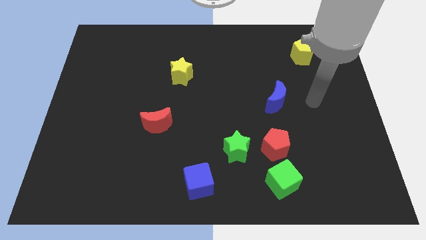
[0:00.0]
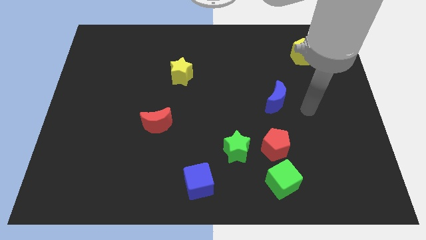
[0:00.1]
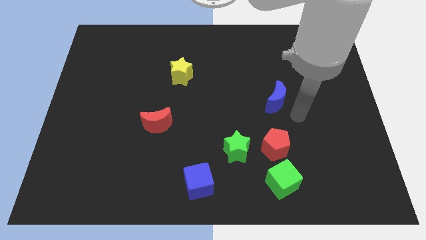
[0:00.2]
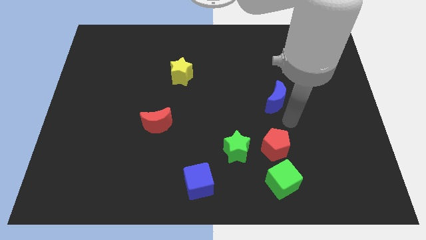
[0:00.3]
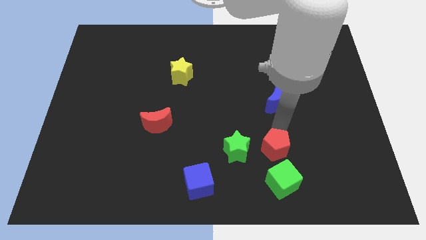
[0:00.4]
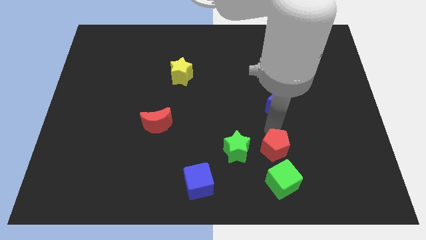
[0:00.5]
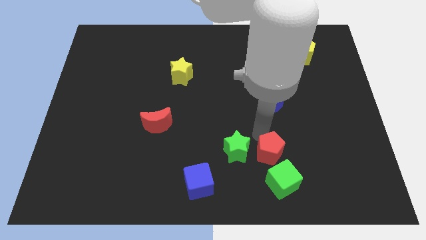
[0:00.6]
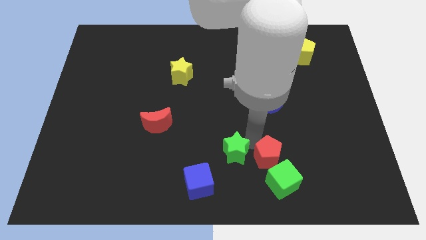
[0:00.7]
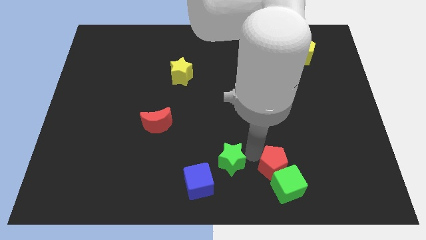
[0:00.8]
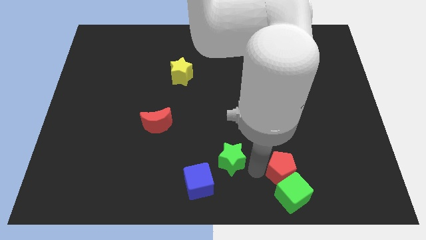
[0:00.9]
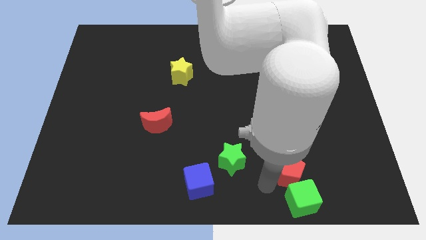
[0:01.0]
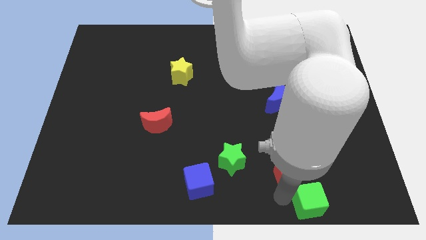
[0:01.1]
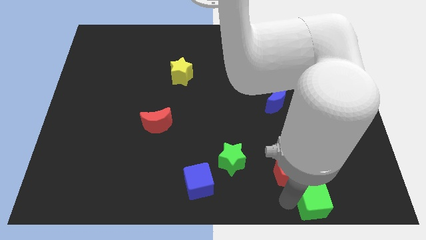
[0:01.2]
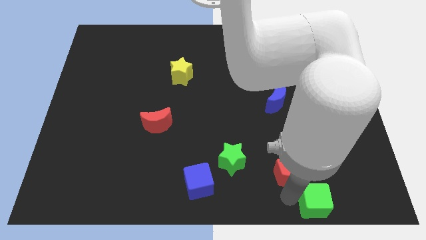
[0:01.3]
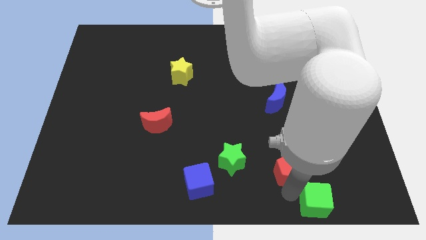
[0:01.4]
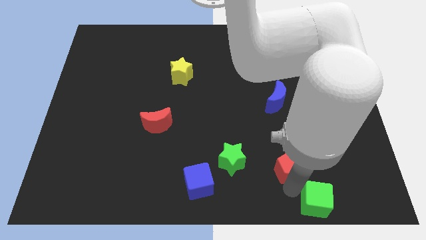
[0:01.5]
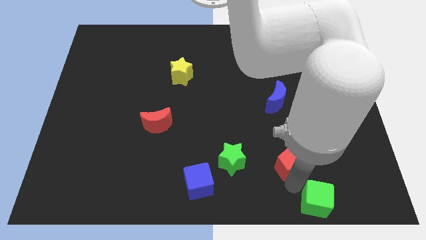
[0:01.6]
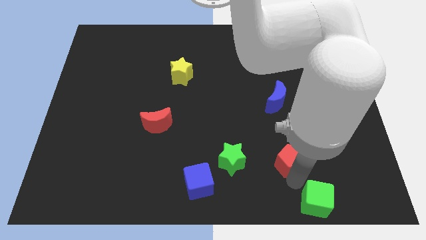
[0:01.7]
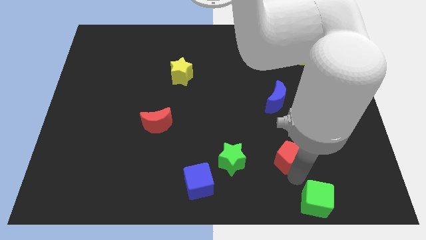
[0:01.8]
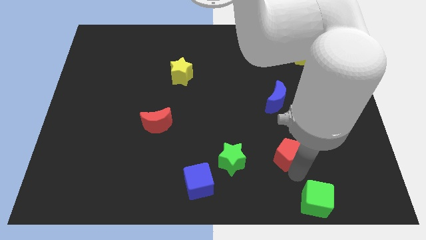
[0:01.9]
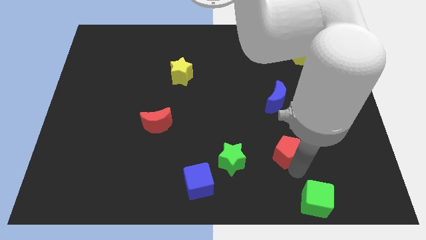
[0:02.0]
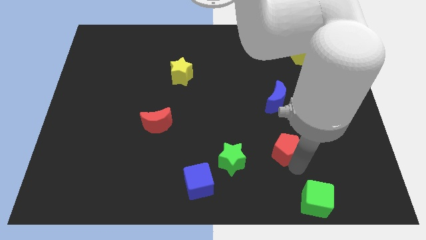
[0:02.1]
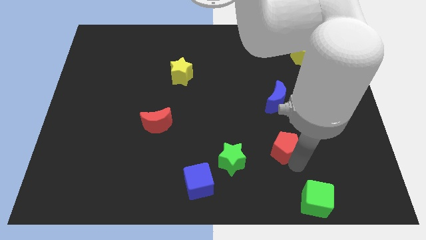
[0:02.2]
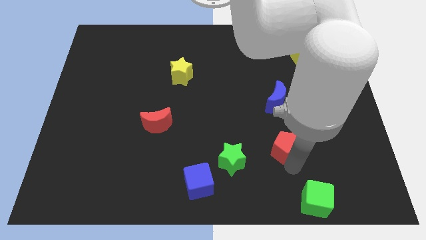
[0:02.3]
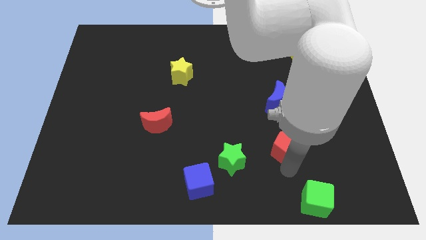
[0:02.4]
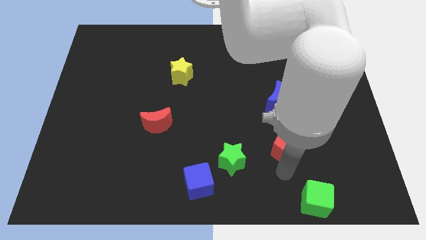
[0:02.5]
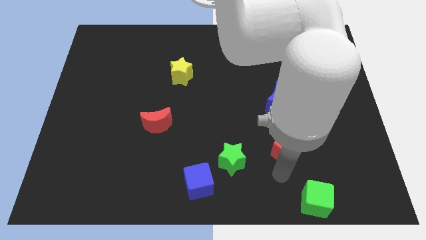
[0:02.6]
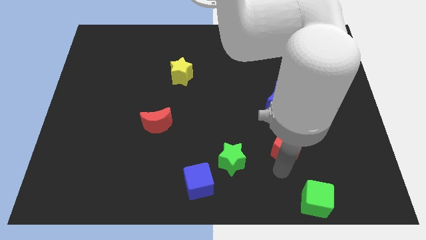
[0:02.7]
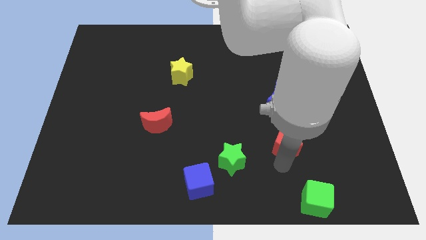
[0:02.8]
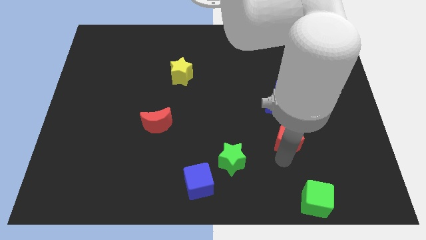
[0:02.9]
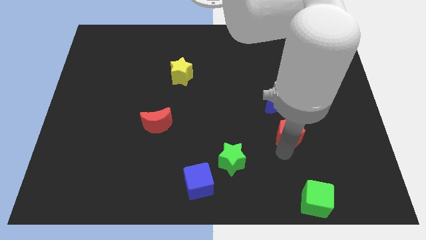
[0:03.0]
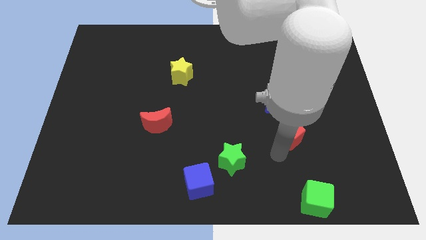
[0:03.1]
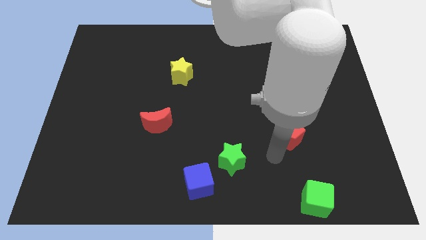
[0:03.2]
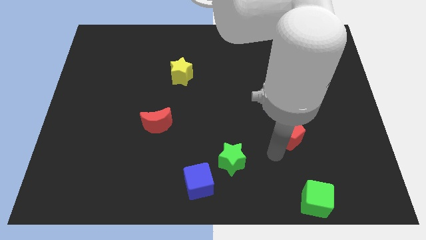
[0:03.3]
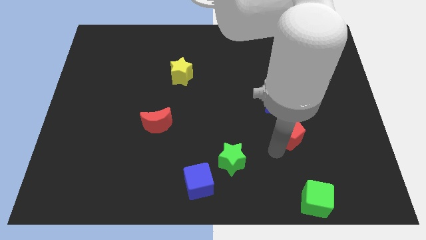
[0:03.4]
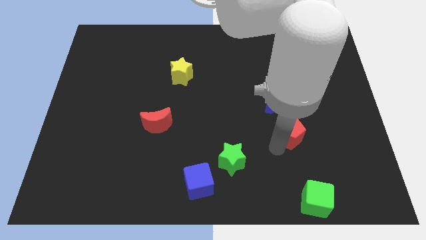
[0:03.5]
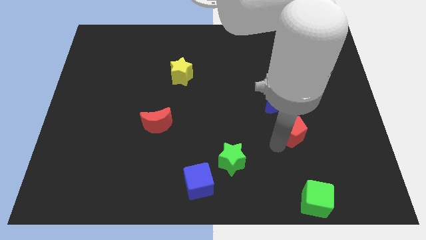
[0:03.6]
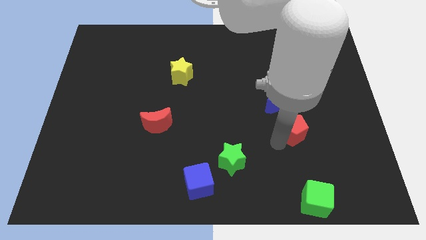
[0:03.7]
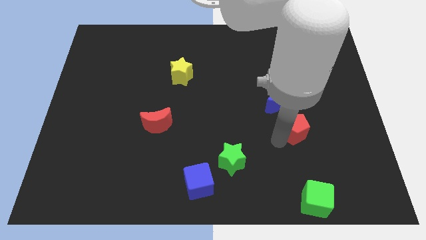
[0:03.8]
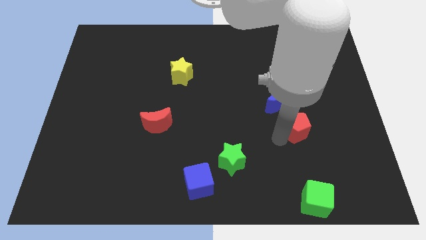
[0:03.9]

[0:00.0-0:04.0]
move the red pentagon slightly diagonally up and right

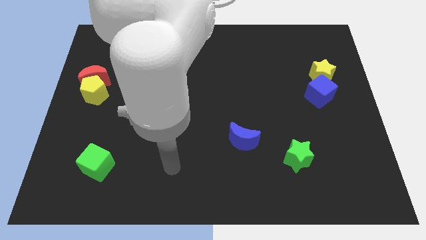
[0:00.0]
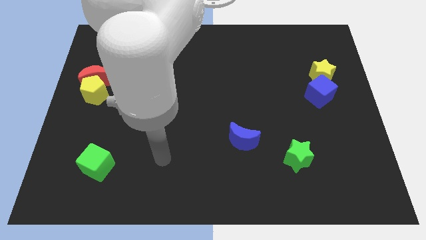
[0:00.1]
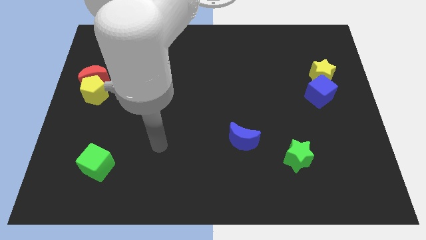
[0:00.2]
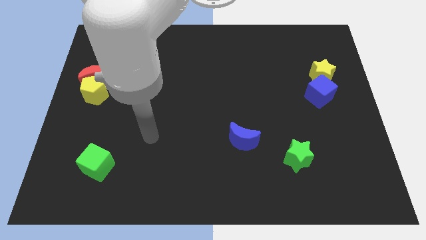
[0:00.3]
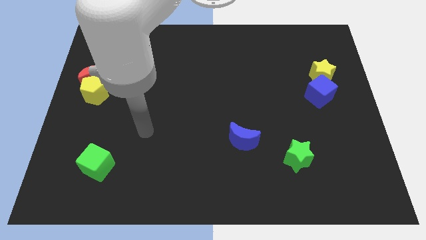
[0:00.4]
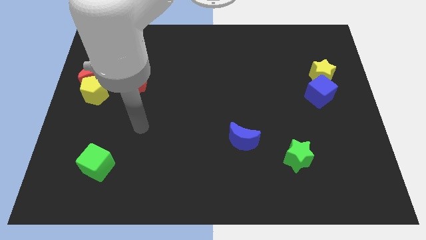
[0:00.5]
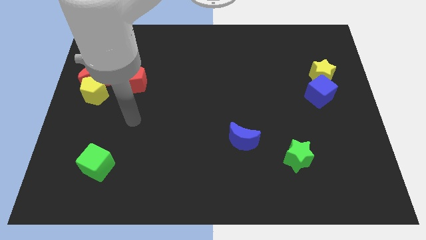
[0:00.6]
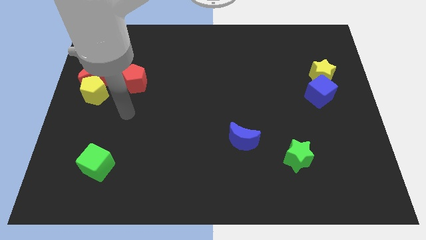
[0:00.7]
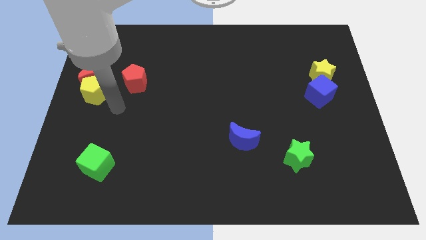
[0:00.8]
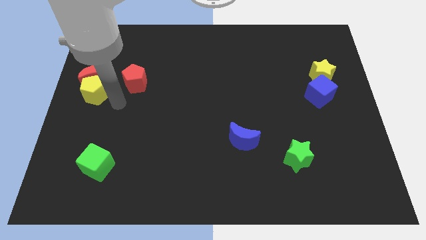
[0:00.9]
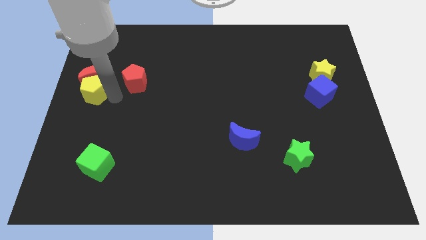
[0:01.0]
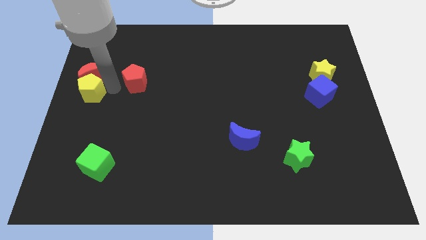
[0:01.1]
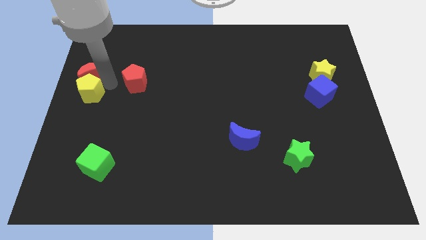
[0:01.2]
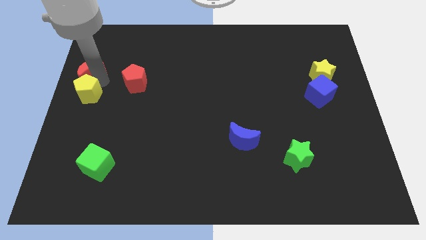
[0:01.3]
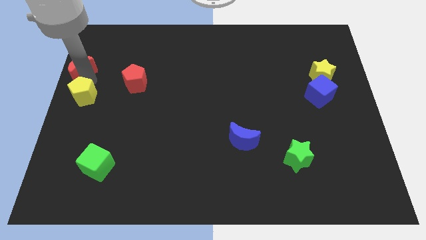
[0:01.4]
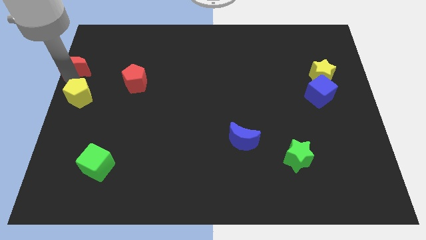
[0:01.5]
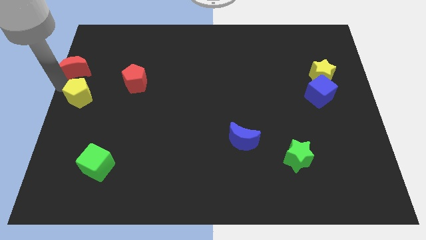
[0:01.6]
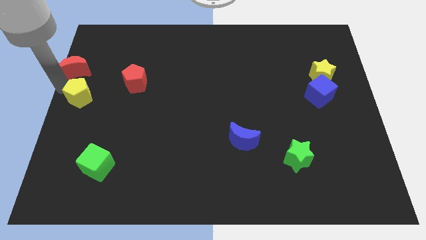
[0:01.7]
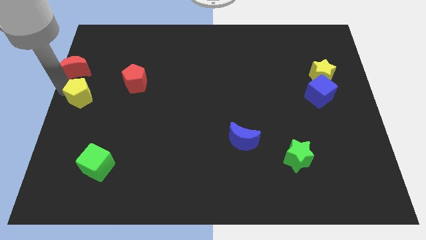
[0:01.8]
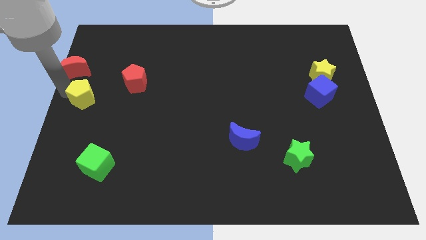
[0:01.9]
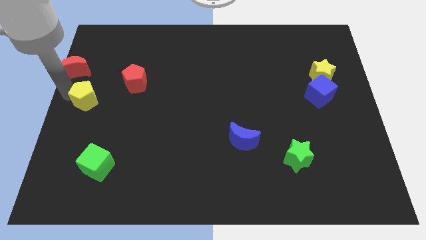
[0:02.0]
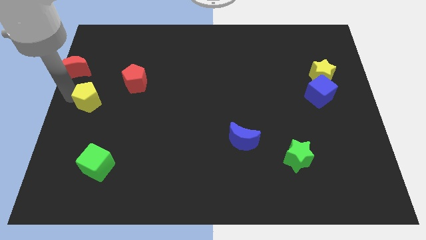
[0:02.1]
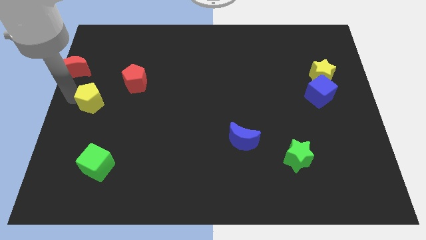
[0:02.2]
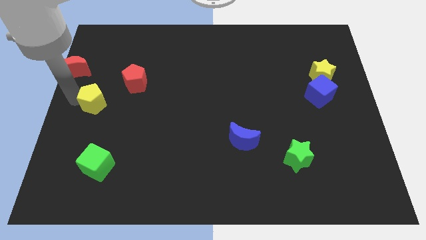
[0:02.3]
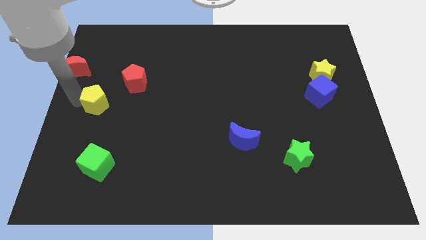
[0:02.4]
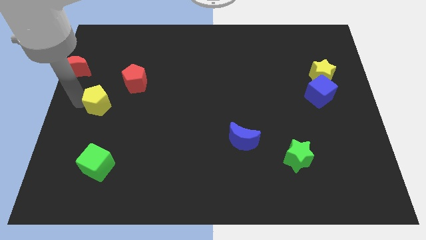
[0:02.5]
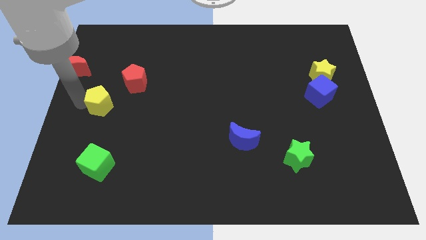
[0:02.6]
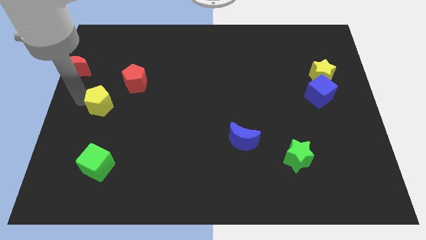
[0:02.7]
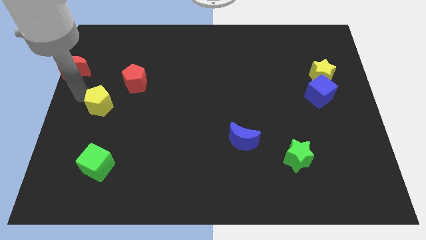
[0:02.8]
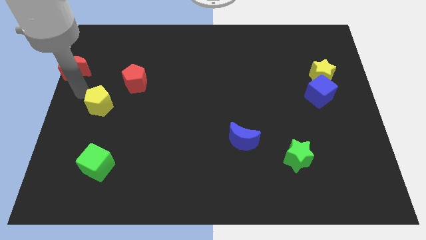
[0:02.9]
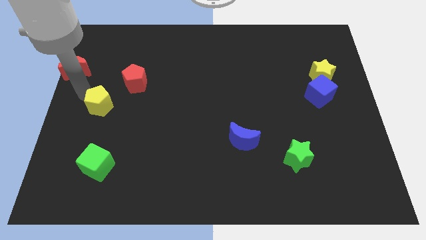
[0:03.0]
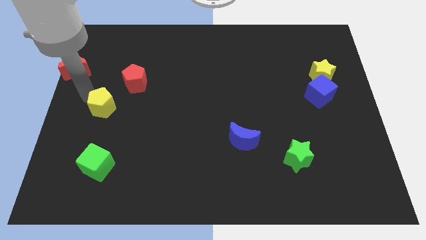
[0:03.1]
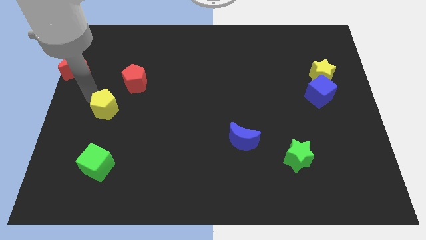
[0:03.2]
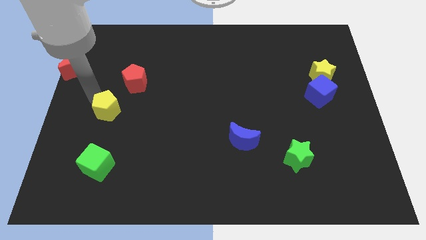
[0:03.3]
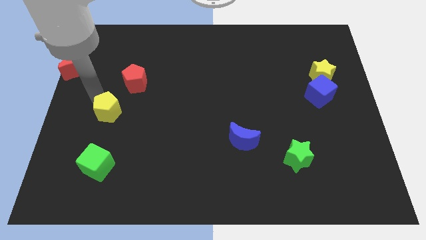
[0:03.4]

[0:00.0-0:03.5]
slightly slide the yellow pentagon down and right diagonally

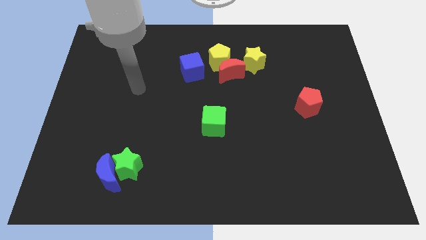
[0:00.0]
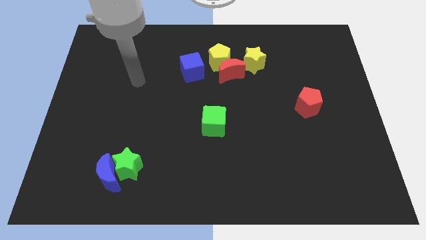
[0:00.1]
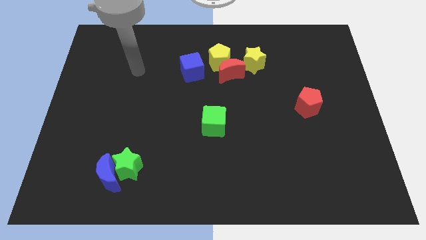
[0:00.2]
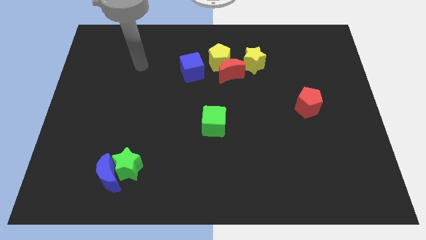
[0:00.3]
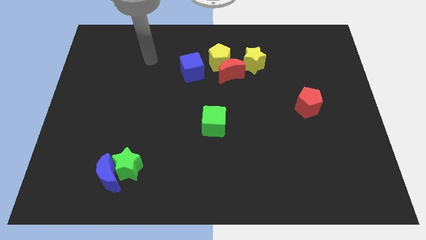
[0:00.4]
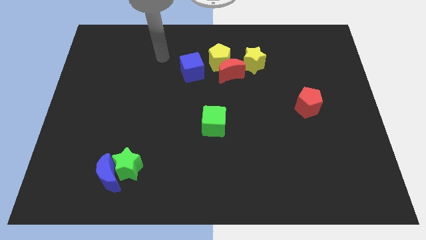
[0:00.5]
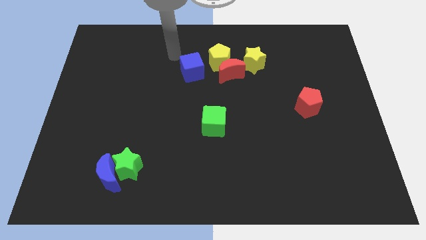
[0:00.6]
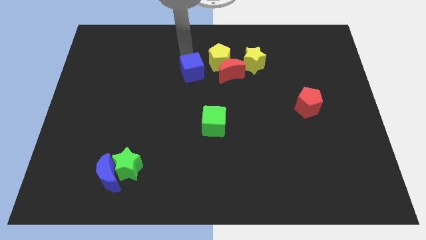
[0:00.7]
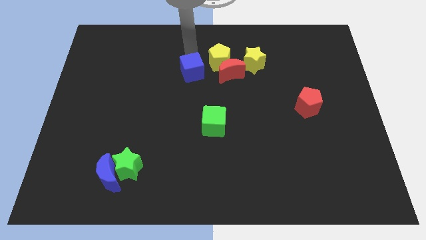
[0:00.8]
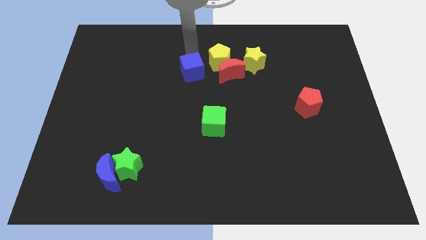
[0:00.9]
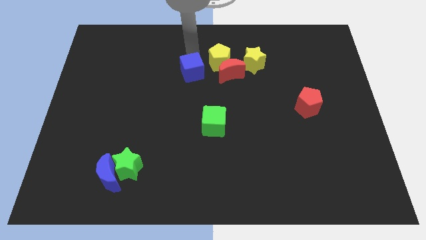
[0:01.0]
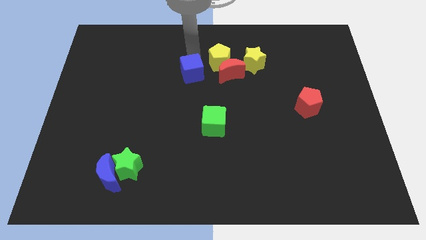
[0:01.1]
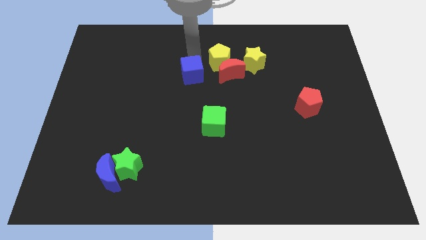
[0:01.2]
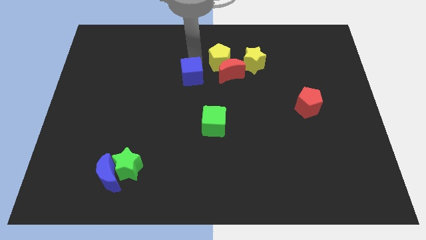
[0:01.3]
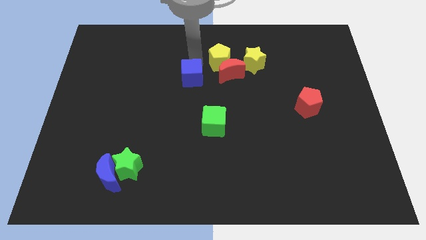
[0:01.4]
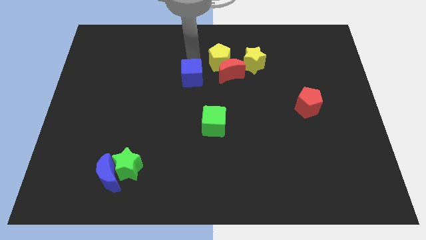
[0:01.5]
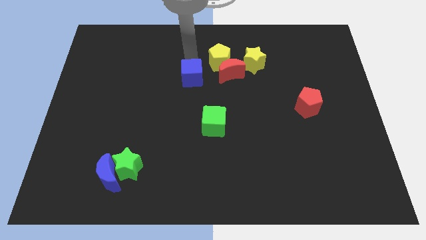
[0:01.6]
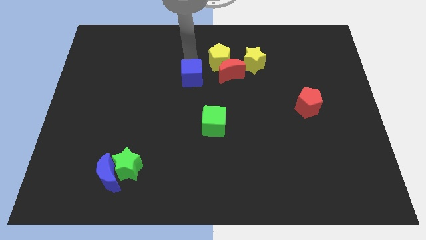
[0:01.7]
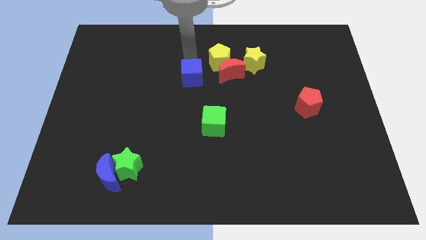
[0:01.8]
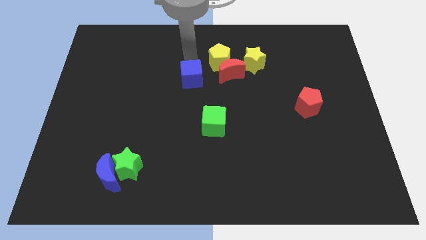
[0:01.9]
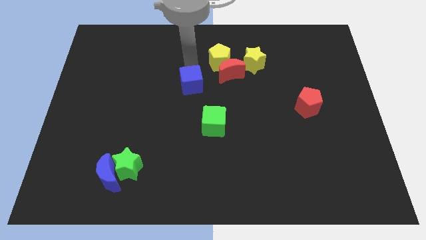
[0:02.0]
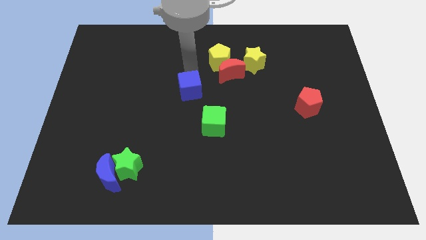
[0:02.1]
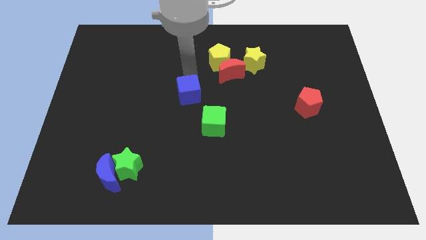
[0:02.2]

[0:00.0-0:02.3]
slide the blue cube downwards slightly
